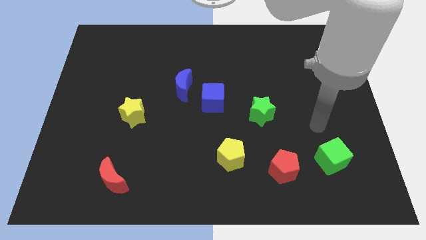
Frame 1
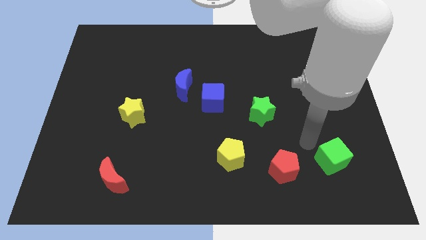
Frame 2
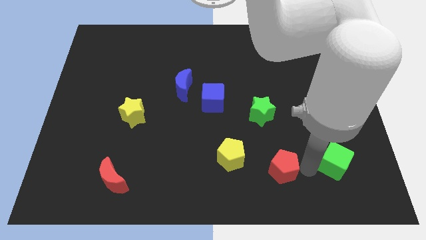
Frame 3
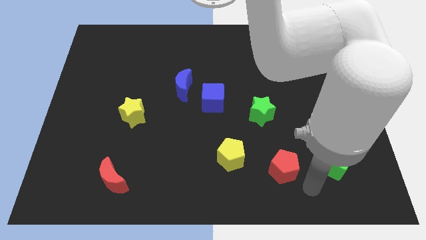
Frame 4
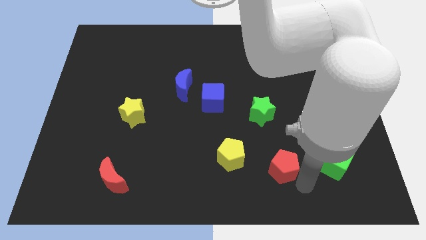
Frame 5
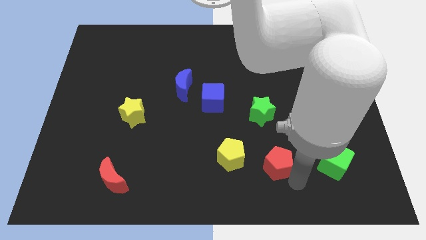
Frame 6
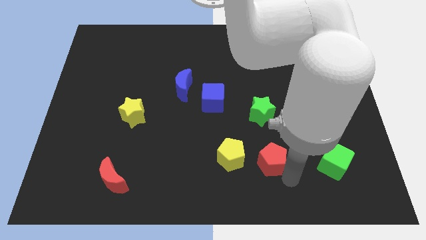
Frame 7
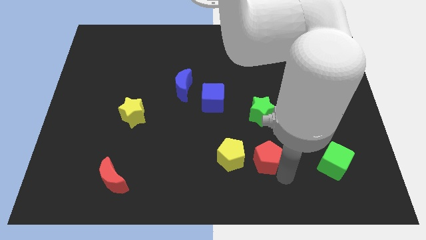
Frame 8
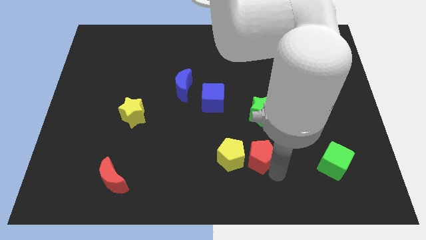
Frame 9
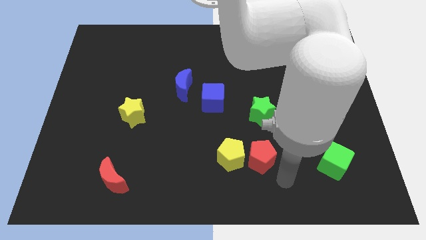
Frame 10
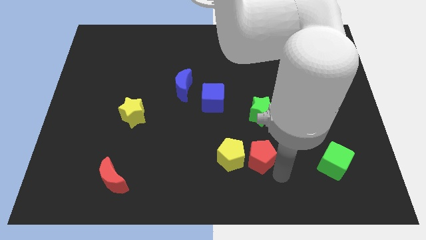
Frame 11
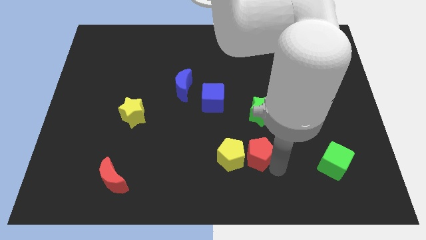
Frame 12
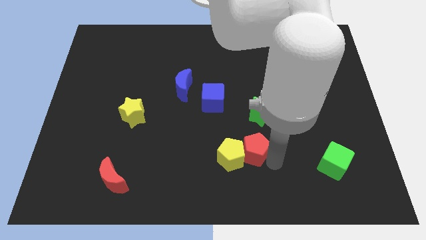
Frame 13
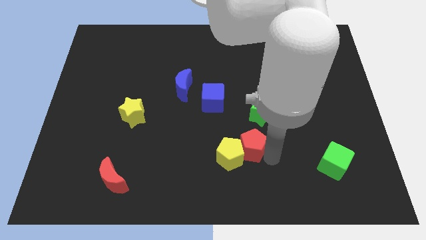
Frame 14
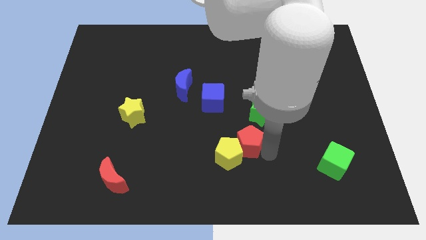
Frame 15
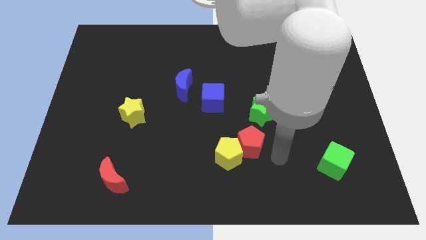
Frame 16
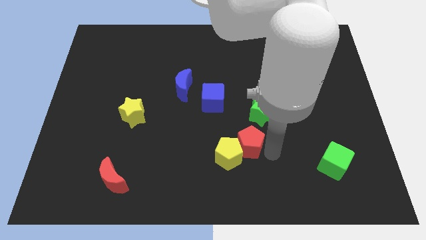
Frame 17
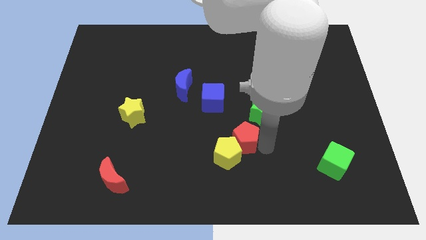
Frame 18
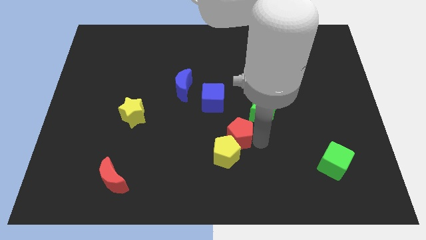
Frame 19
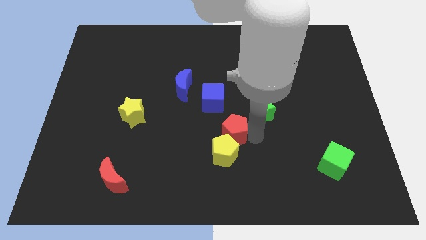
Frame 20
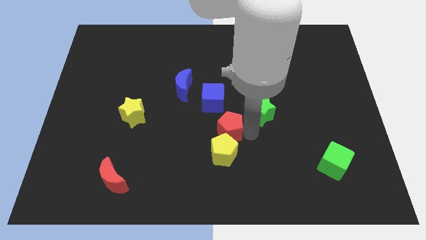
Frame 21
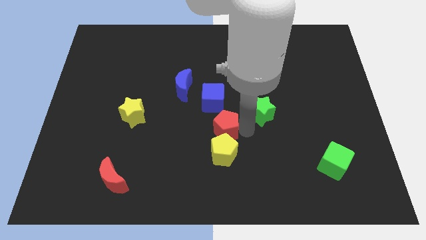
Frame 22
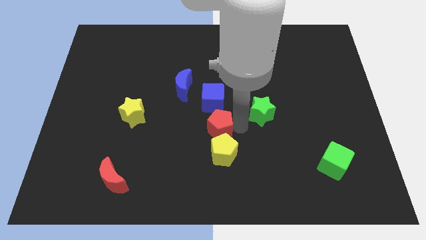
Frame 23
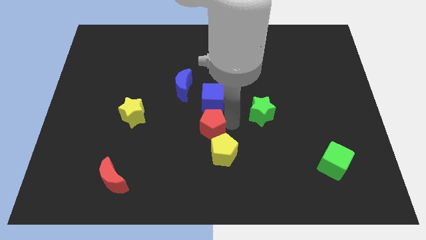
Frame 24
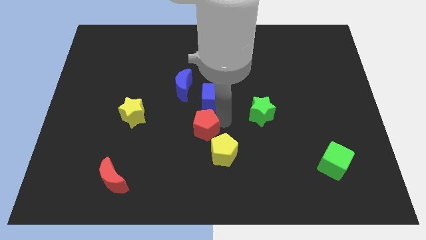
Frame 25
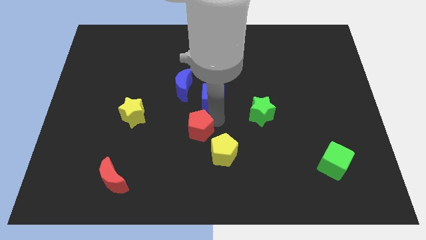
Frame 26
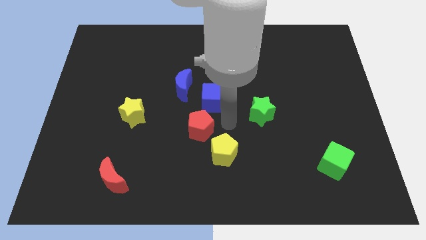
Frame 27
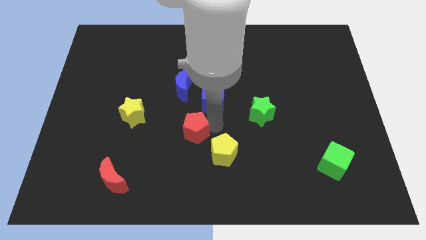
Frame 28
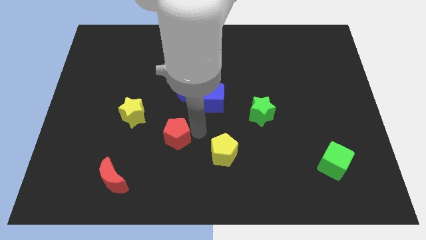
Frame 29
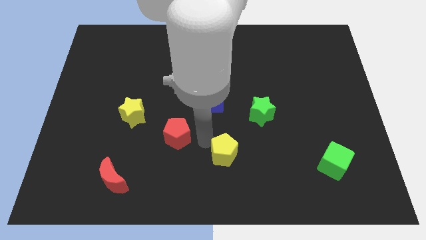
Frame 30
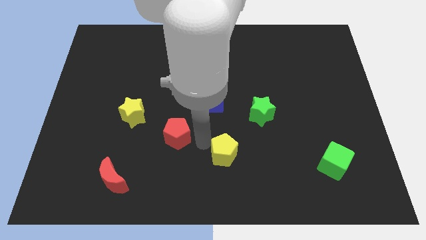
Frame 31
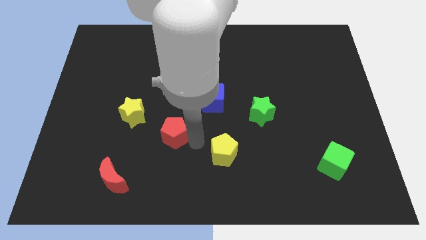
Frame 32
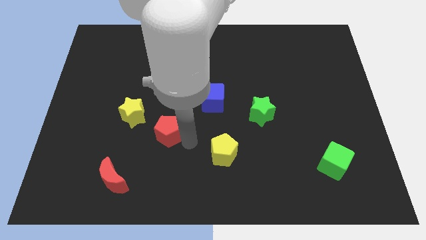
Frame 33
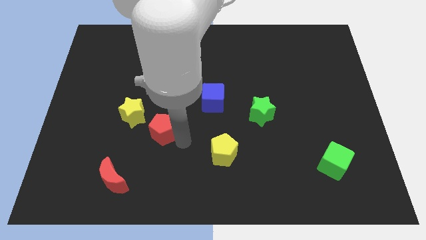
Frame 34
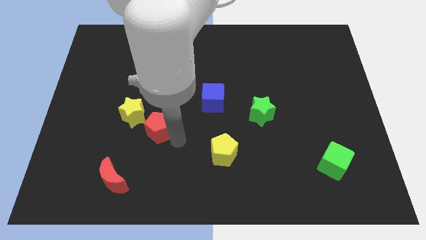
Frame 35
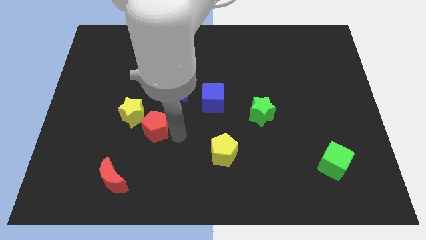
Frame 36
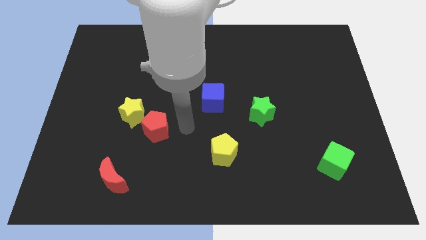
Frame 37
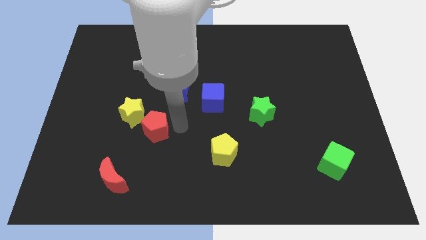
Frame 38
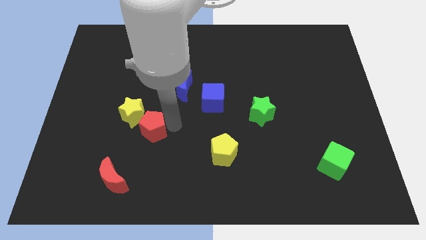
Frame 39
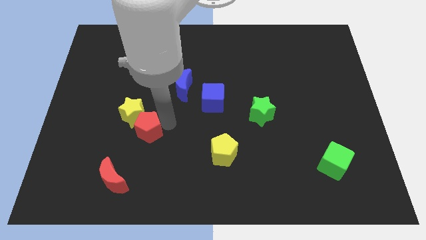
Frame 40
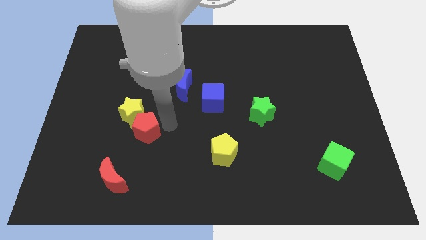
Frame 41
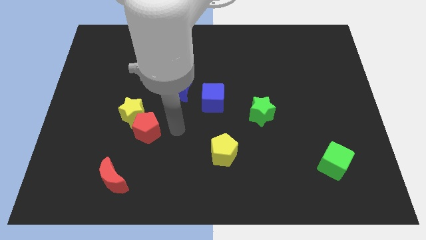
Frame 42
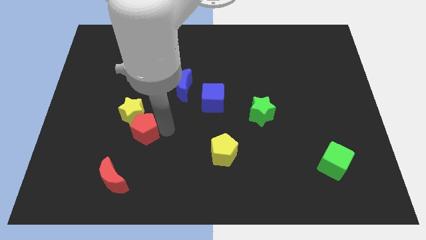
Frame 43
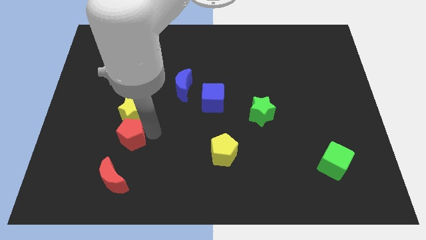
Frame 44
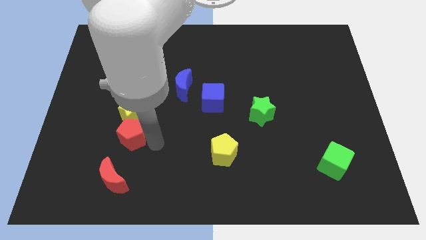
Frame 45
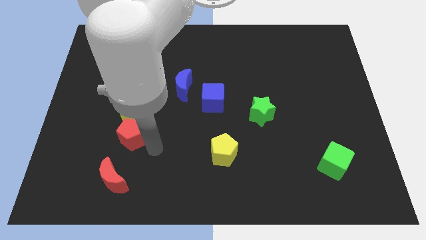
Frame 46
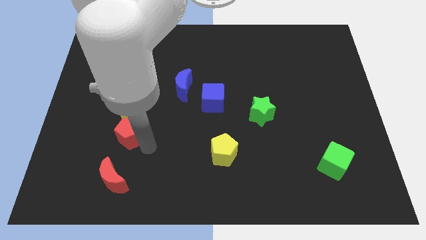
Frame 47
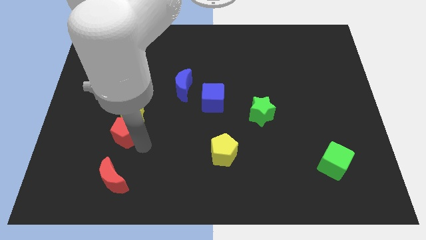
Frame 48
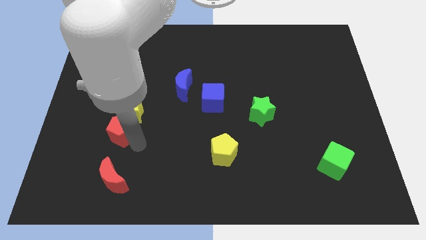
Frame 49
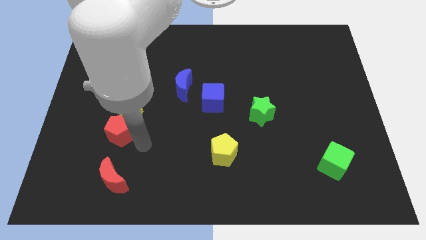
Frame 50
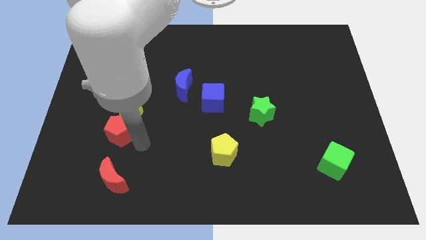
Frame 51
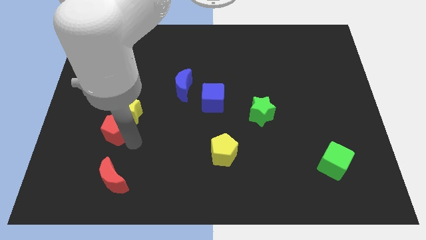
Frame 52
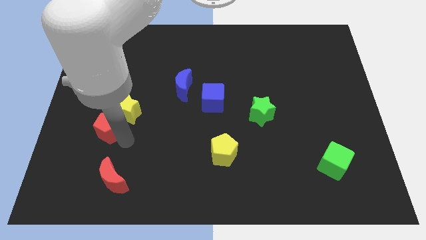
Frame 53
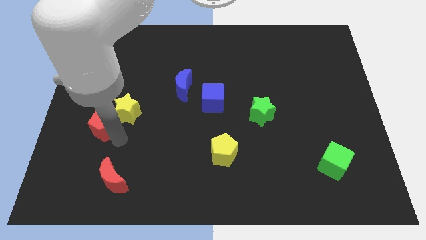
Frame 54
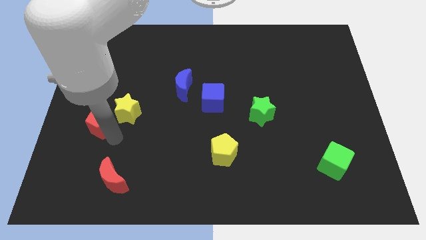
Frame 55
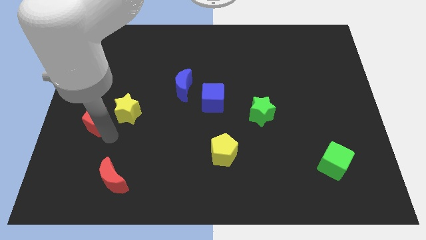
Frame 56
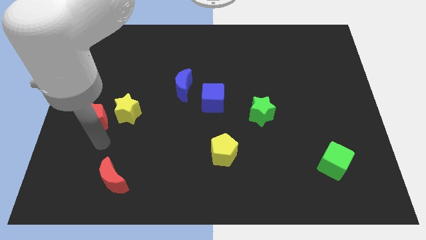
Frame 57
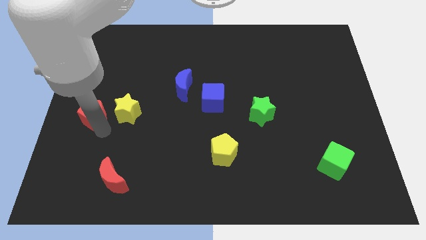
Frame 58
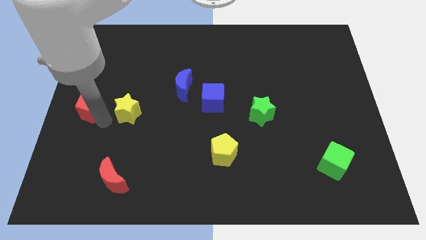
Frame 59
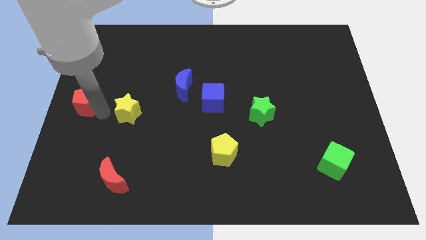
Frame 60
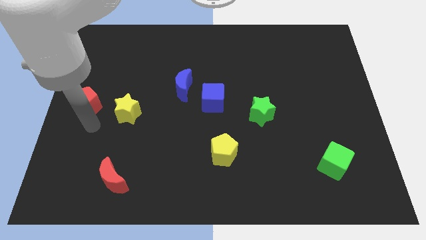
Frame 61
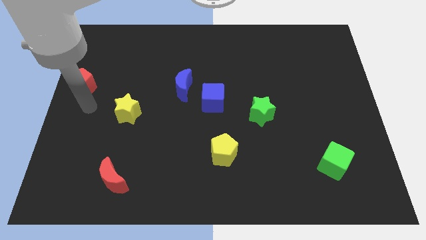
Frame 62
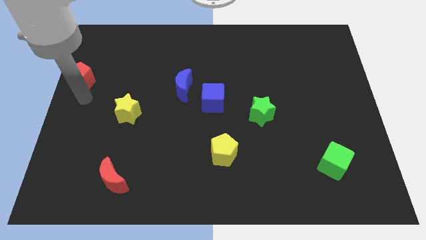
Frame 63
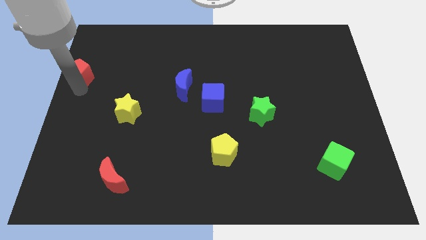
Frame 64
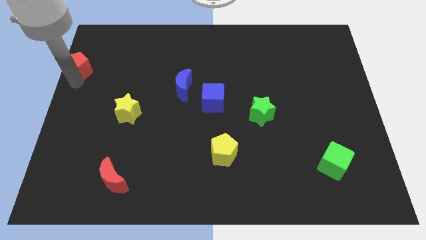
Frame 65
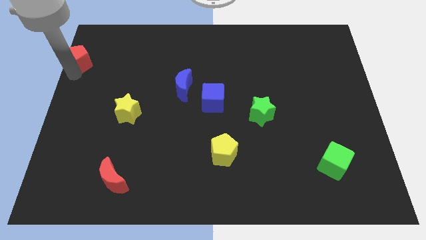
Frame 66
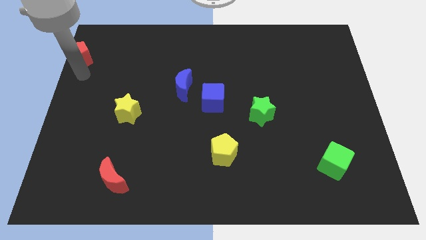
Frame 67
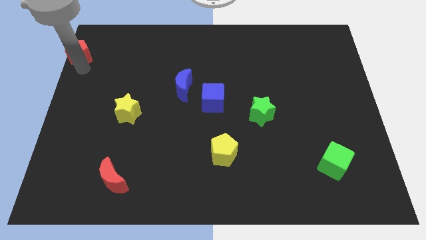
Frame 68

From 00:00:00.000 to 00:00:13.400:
push the red pentagon to the top left of the board

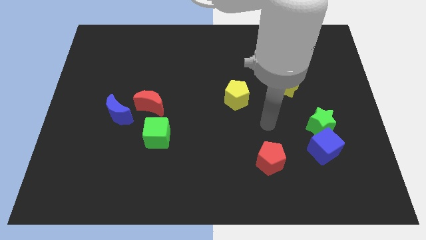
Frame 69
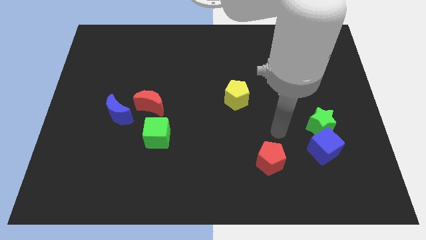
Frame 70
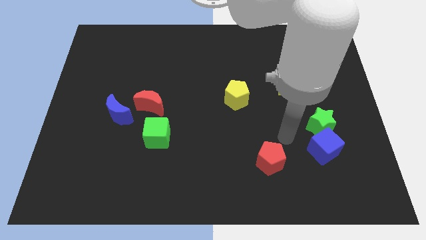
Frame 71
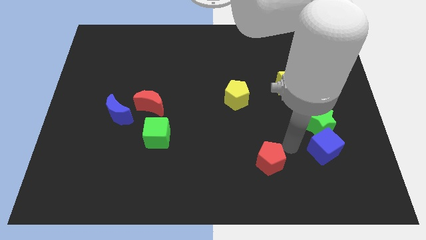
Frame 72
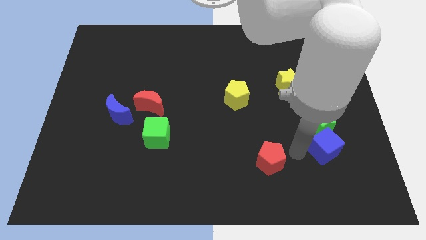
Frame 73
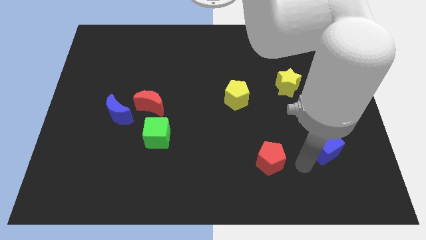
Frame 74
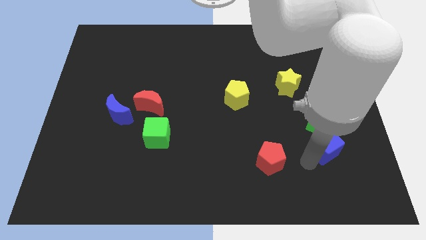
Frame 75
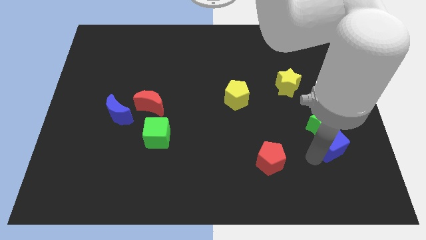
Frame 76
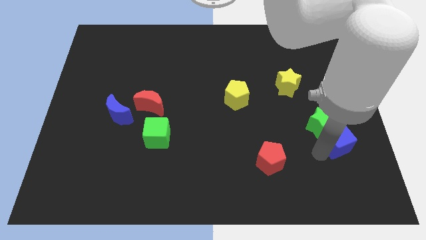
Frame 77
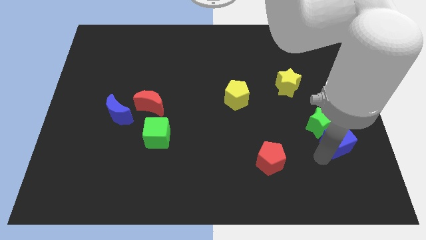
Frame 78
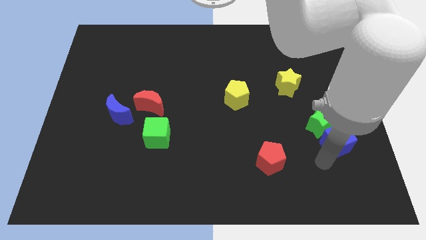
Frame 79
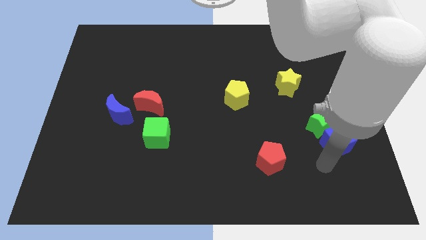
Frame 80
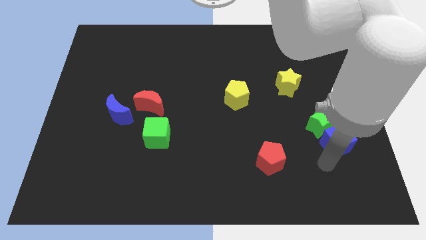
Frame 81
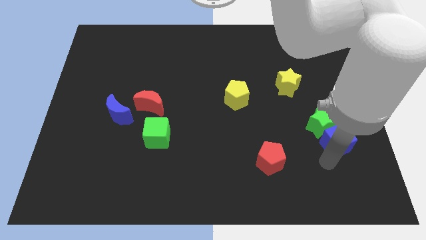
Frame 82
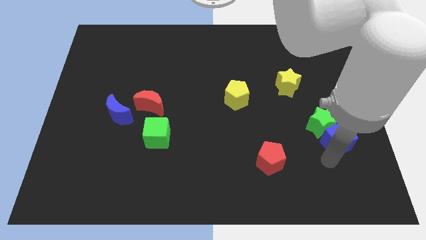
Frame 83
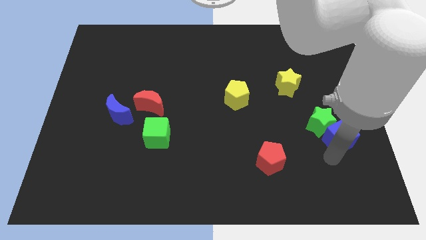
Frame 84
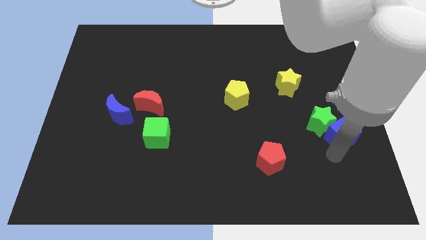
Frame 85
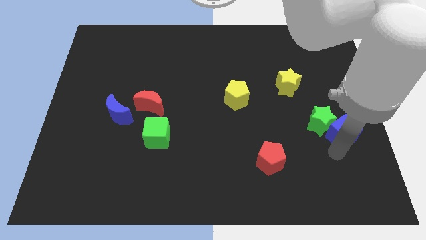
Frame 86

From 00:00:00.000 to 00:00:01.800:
put the blue cube to the center right
